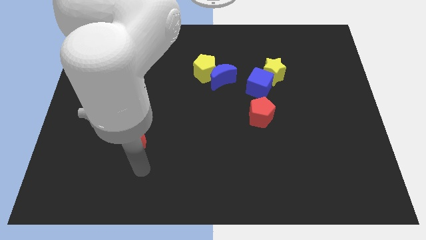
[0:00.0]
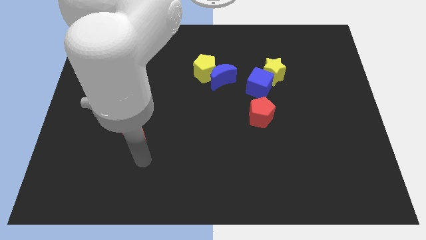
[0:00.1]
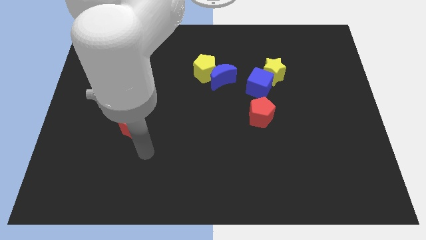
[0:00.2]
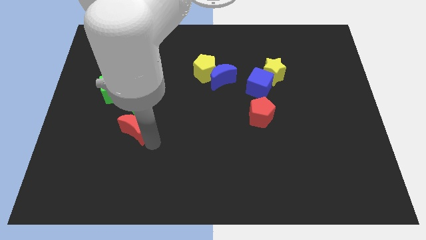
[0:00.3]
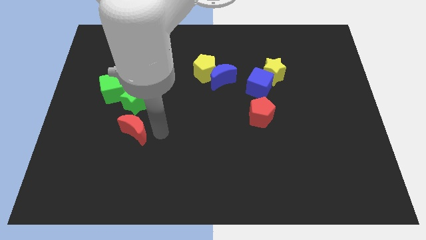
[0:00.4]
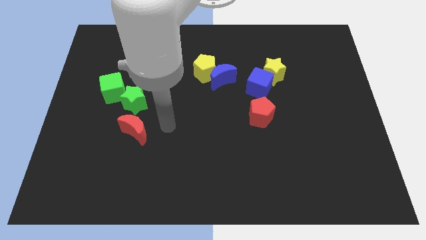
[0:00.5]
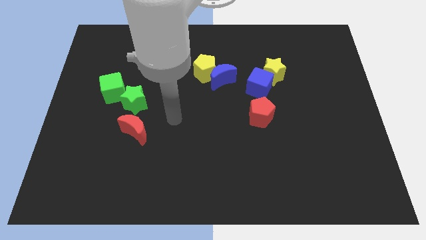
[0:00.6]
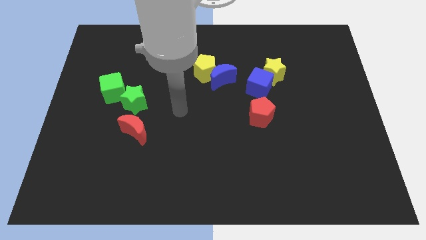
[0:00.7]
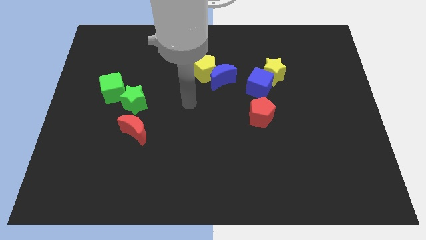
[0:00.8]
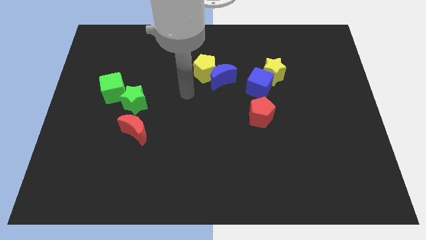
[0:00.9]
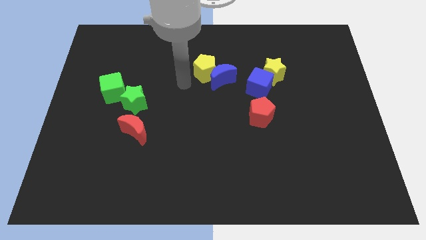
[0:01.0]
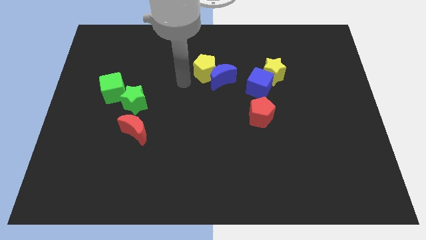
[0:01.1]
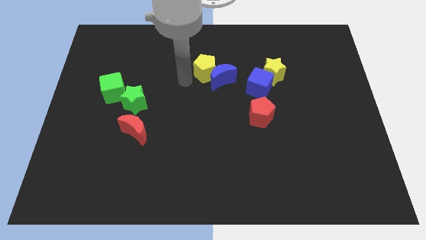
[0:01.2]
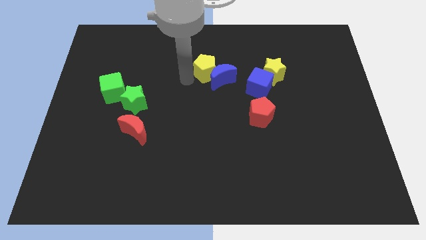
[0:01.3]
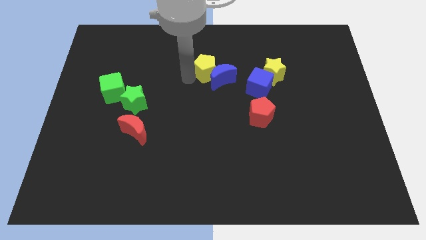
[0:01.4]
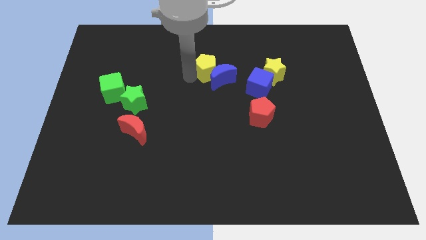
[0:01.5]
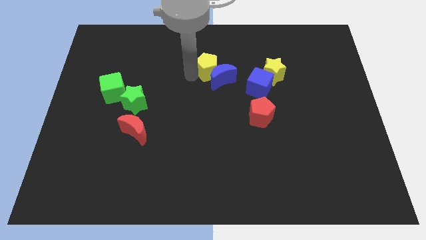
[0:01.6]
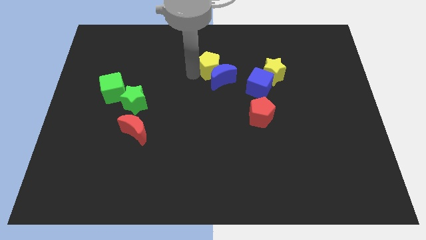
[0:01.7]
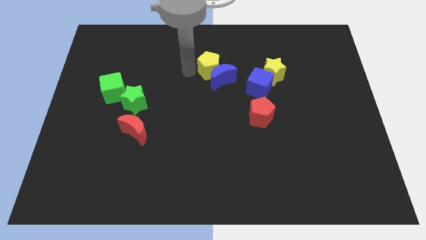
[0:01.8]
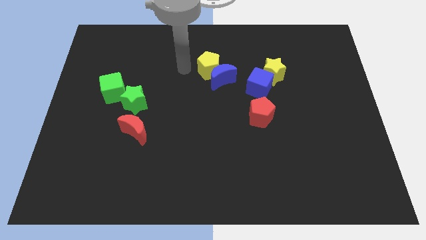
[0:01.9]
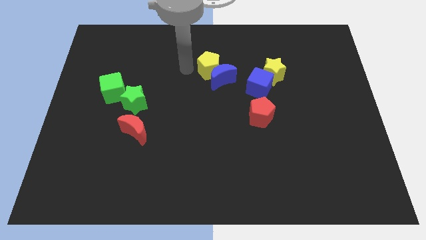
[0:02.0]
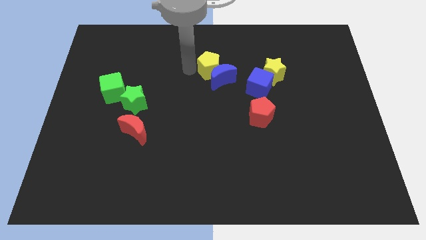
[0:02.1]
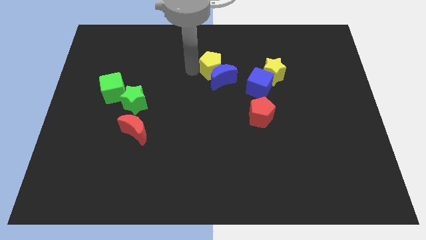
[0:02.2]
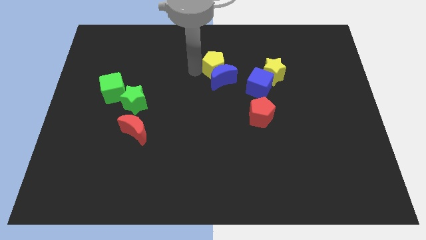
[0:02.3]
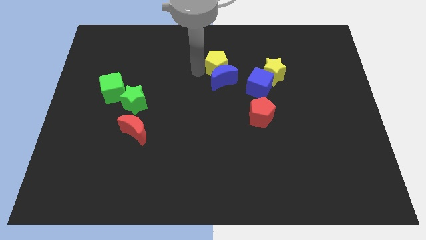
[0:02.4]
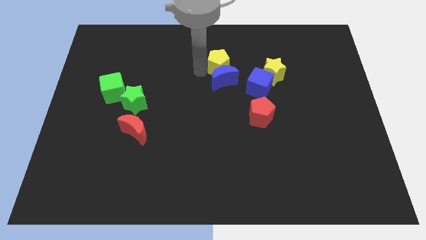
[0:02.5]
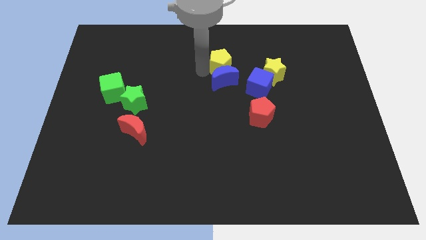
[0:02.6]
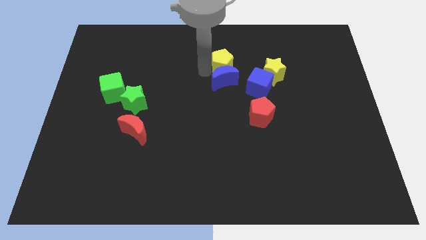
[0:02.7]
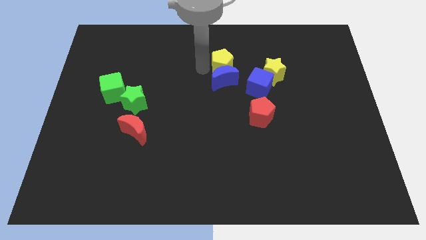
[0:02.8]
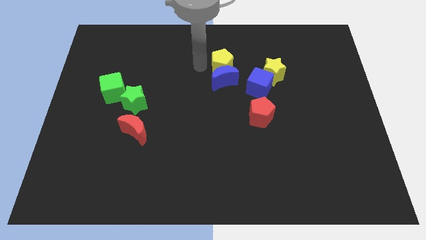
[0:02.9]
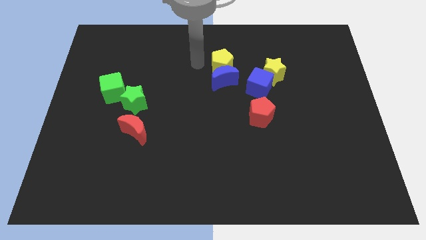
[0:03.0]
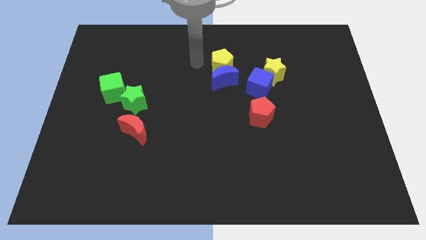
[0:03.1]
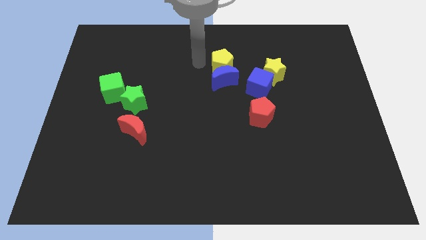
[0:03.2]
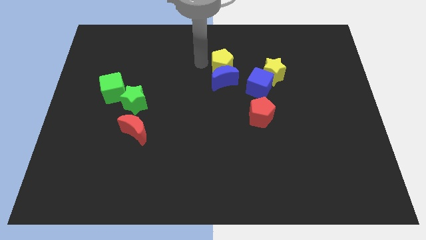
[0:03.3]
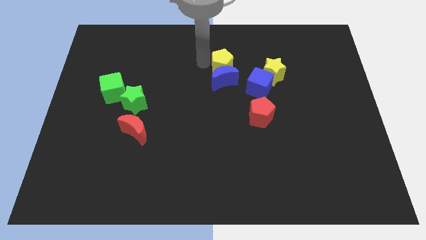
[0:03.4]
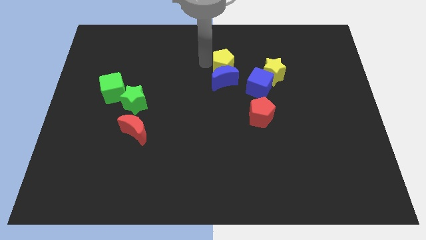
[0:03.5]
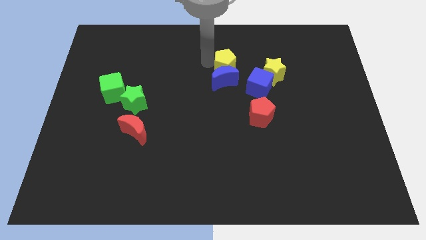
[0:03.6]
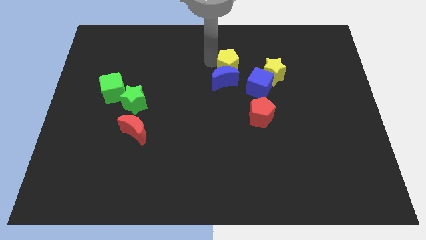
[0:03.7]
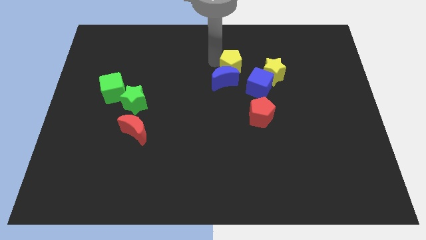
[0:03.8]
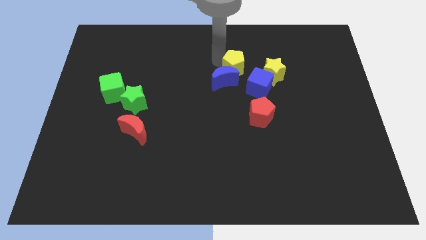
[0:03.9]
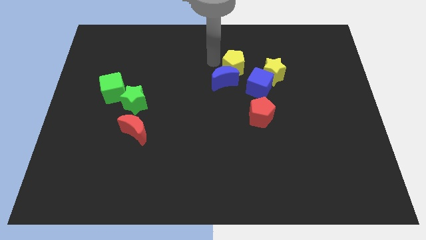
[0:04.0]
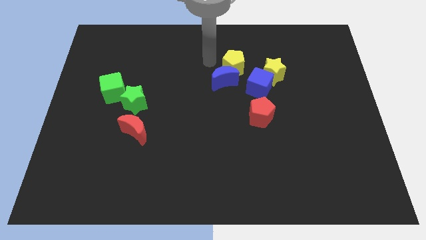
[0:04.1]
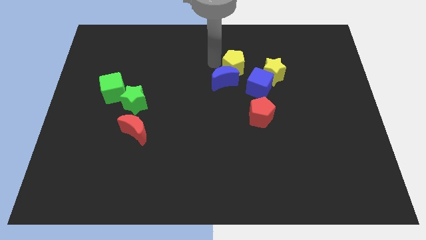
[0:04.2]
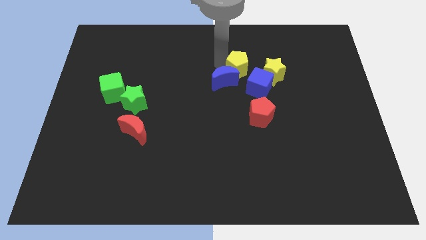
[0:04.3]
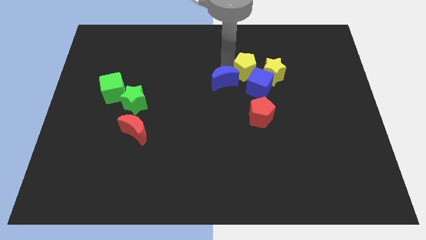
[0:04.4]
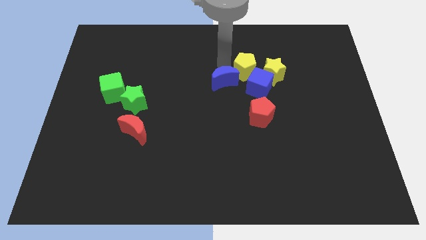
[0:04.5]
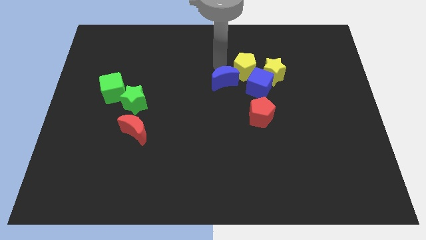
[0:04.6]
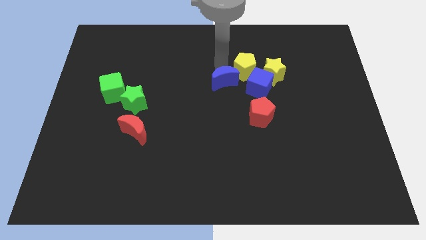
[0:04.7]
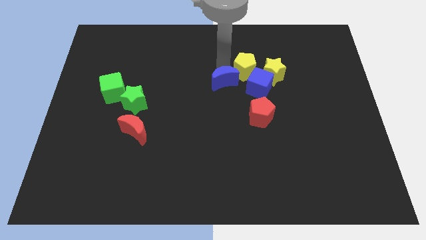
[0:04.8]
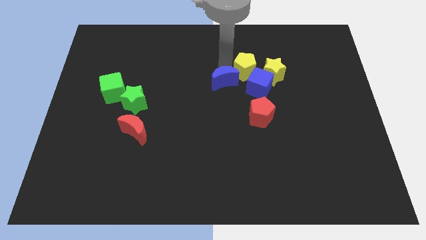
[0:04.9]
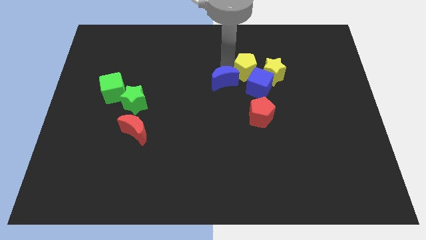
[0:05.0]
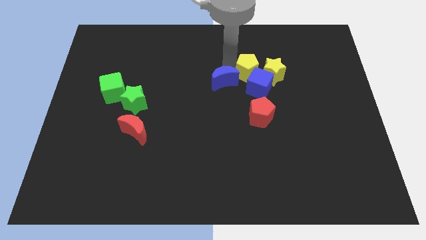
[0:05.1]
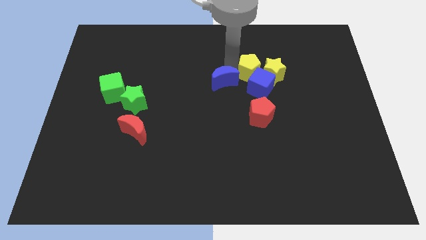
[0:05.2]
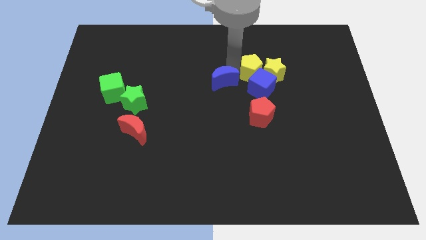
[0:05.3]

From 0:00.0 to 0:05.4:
push the yellow pentagon next to the yellow star

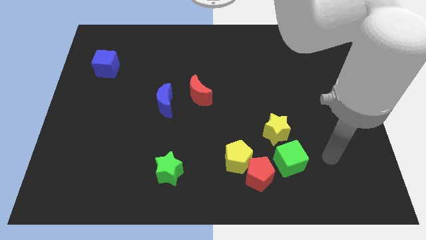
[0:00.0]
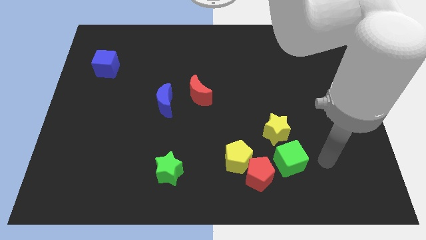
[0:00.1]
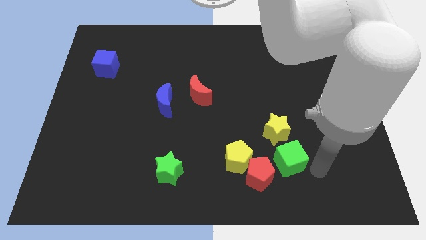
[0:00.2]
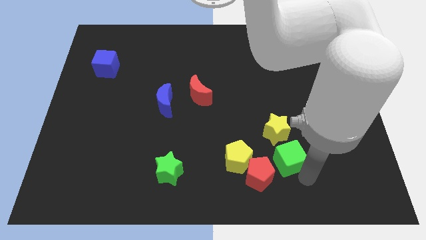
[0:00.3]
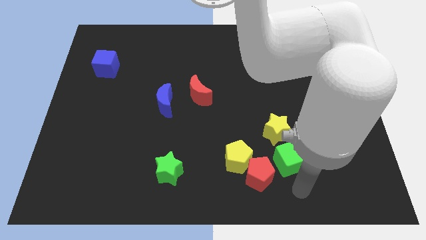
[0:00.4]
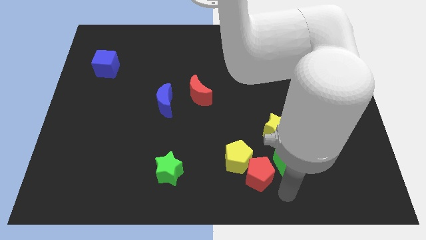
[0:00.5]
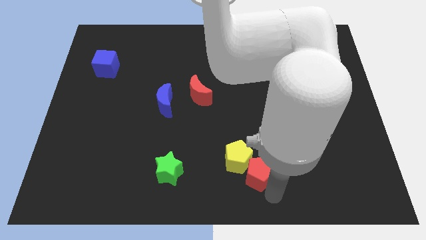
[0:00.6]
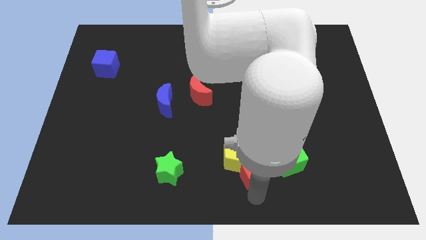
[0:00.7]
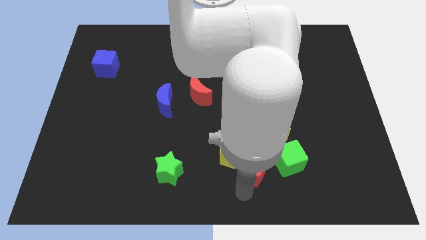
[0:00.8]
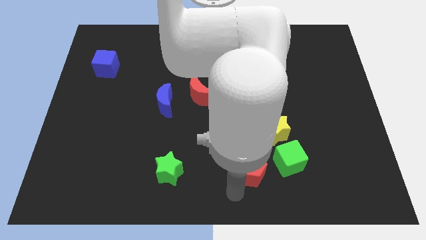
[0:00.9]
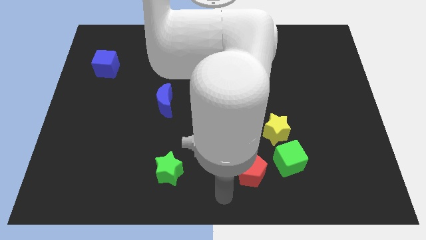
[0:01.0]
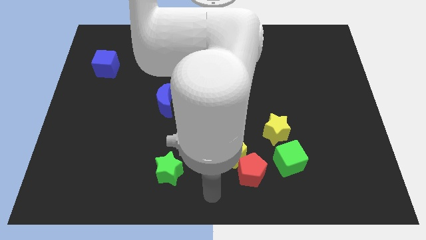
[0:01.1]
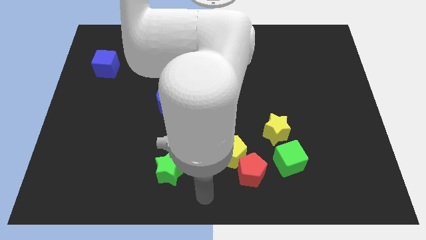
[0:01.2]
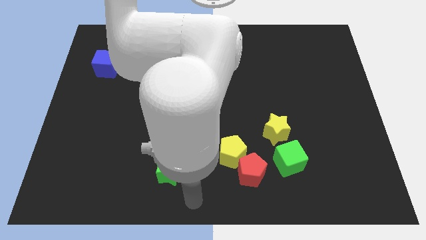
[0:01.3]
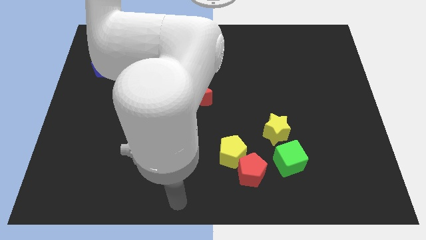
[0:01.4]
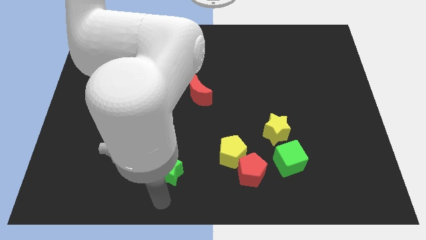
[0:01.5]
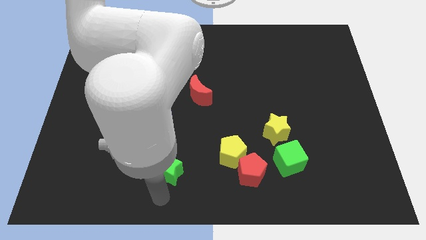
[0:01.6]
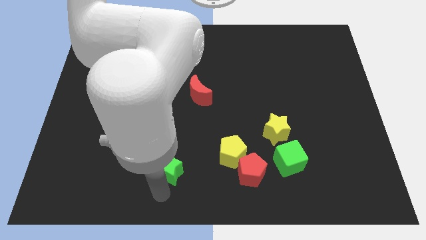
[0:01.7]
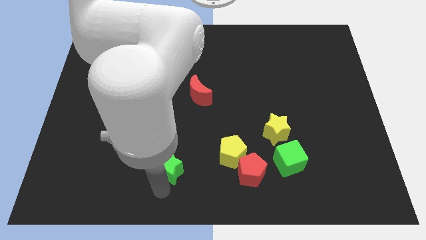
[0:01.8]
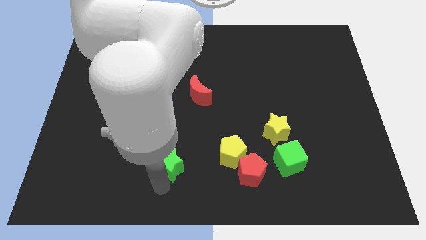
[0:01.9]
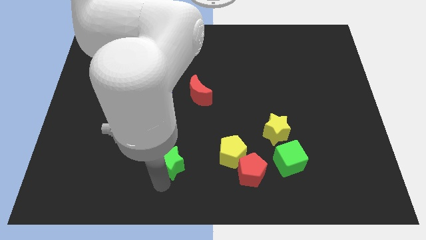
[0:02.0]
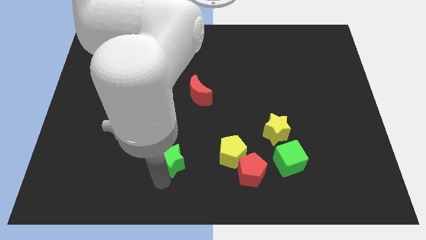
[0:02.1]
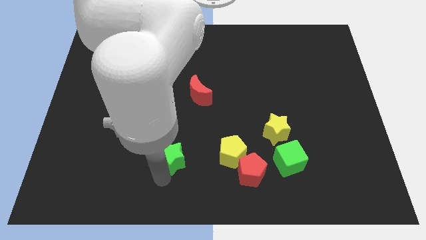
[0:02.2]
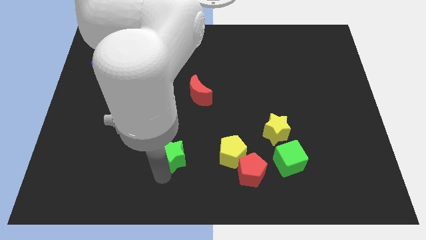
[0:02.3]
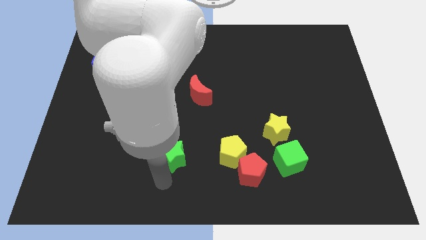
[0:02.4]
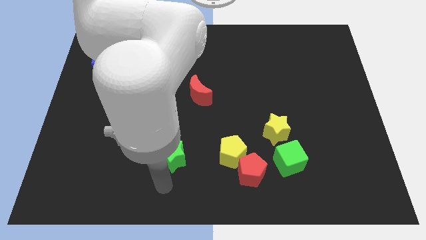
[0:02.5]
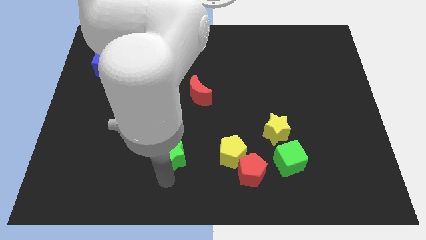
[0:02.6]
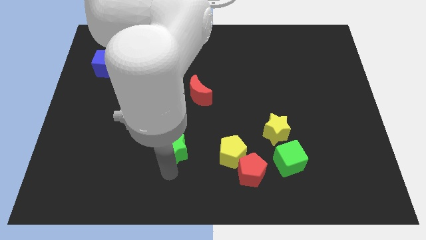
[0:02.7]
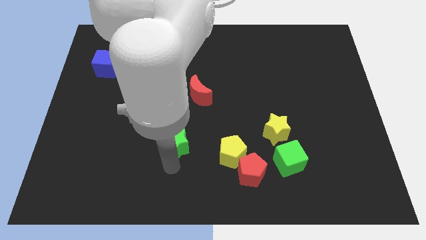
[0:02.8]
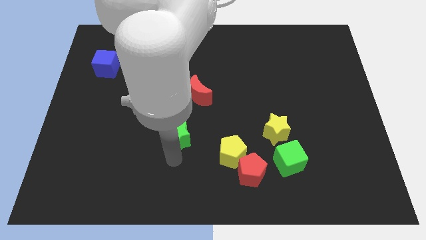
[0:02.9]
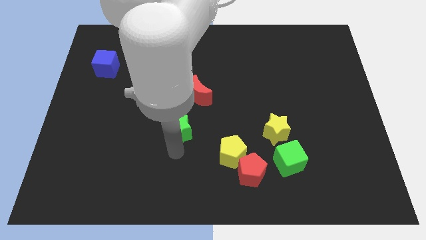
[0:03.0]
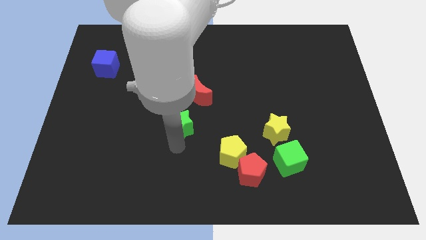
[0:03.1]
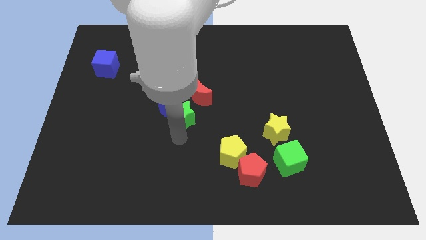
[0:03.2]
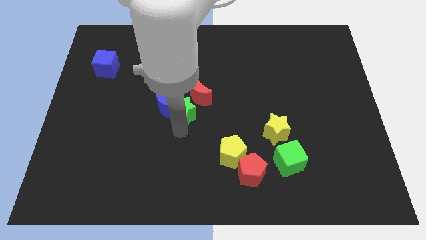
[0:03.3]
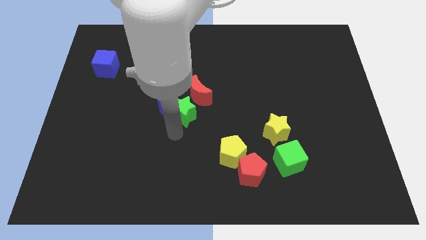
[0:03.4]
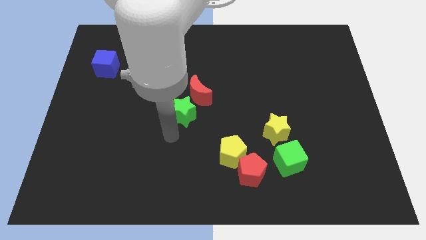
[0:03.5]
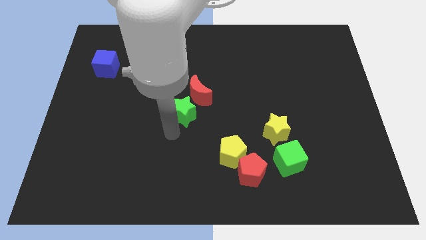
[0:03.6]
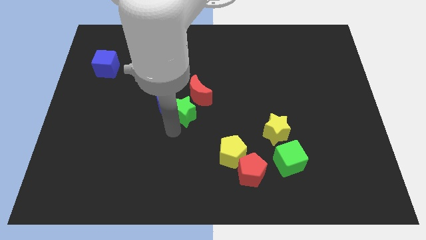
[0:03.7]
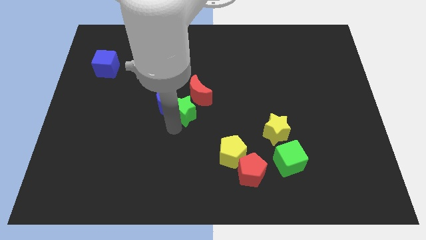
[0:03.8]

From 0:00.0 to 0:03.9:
put the green star close to the red moon
